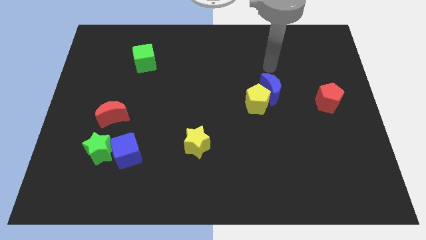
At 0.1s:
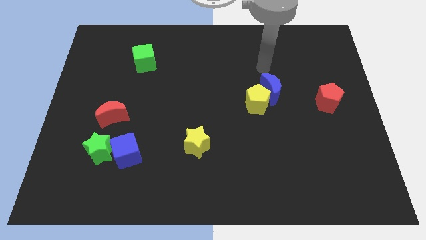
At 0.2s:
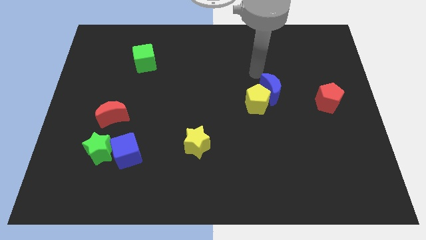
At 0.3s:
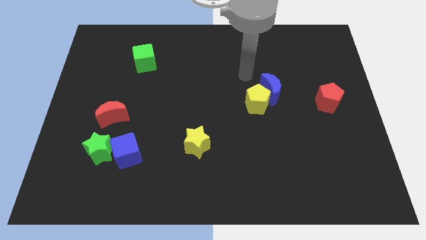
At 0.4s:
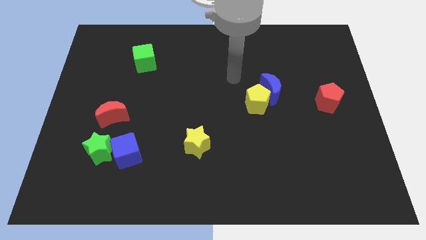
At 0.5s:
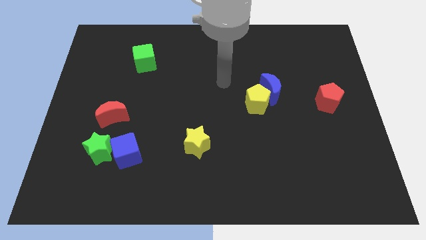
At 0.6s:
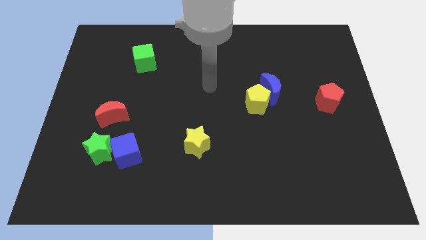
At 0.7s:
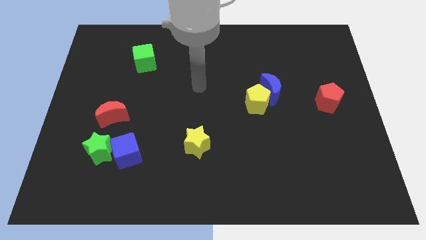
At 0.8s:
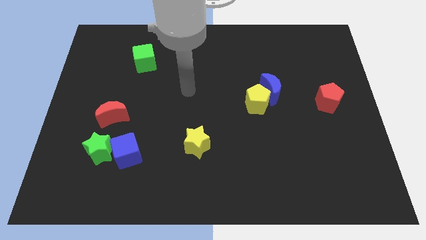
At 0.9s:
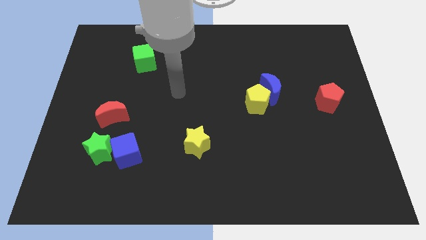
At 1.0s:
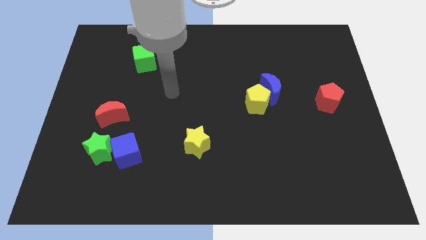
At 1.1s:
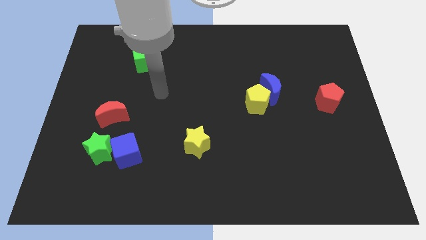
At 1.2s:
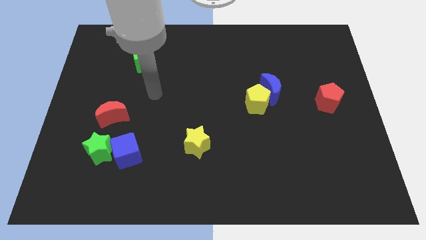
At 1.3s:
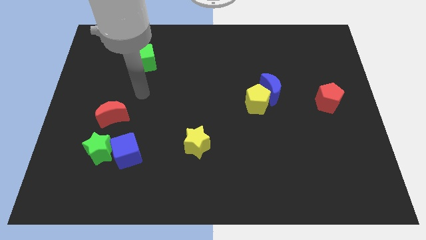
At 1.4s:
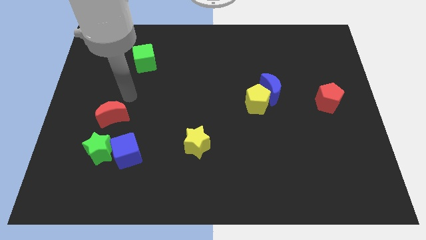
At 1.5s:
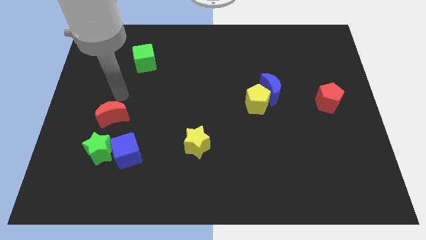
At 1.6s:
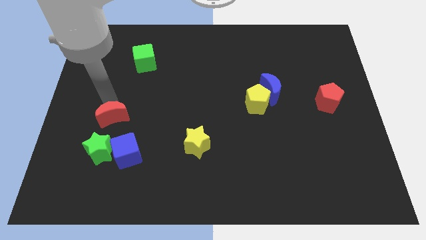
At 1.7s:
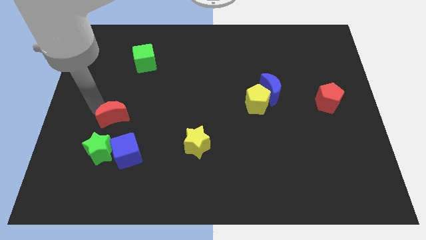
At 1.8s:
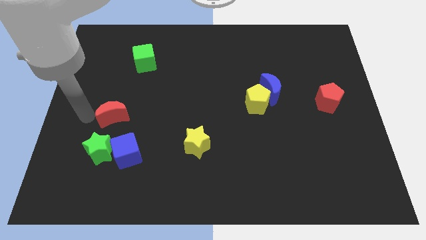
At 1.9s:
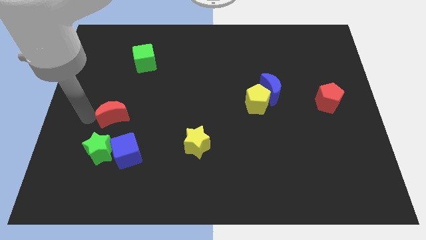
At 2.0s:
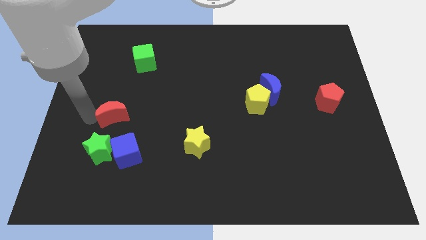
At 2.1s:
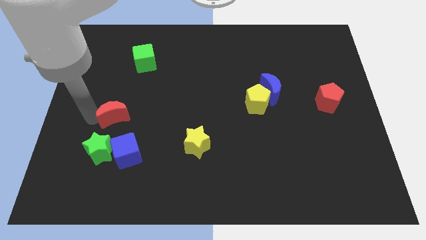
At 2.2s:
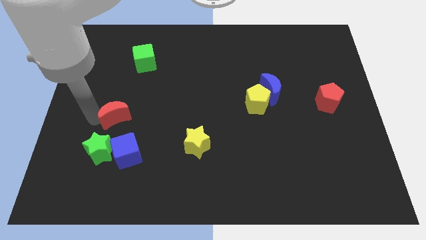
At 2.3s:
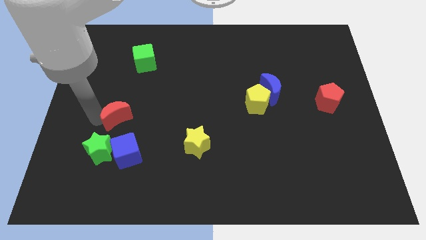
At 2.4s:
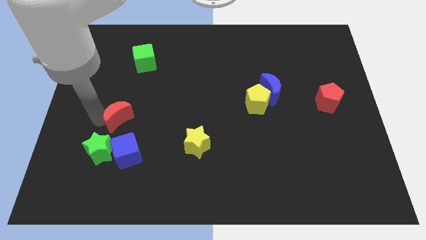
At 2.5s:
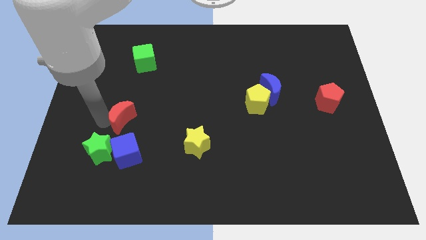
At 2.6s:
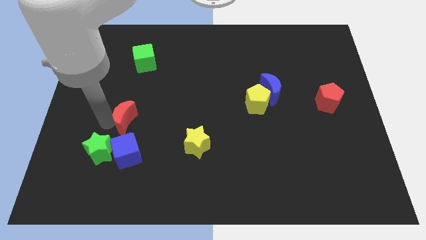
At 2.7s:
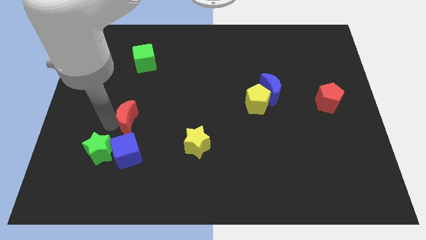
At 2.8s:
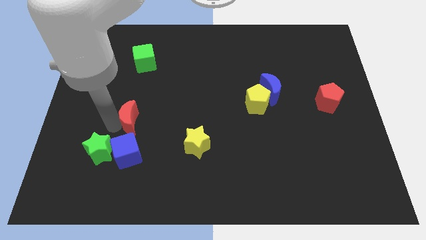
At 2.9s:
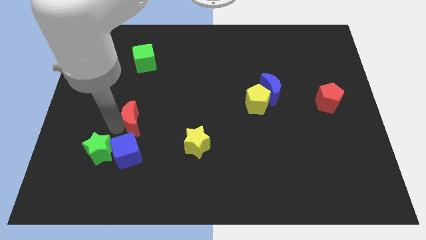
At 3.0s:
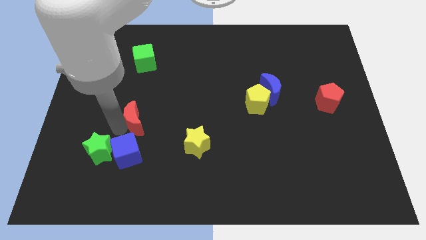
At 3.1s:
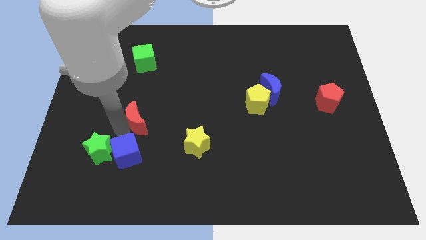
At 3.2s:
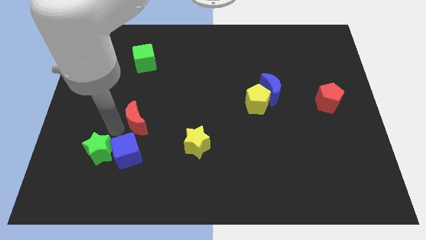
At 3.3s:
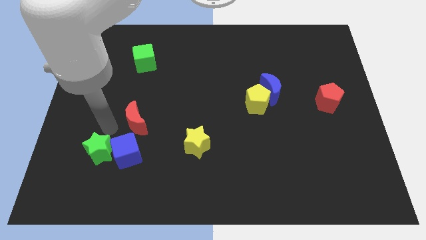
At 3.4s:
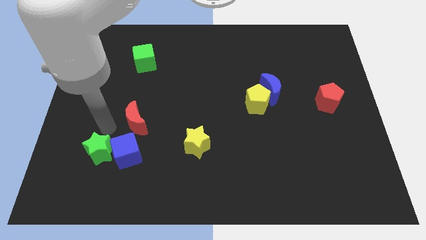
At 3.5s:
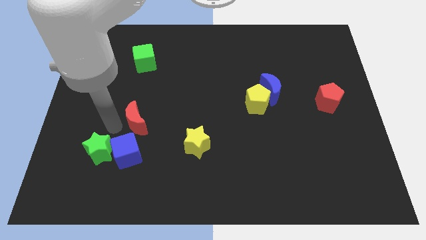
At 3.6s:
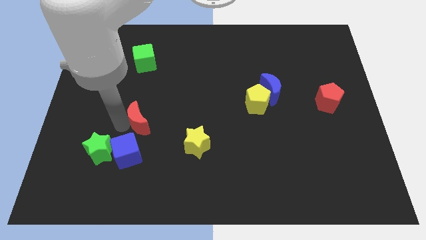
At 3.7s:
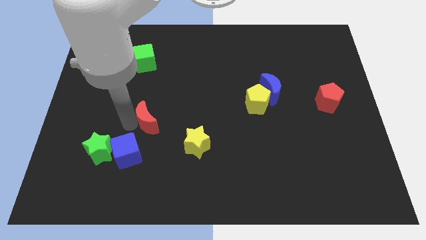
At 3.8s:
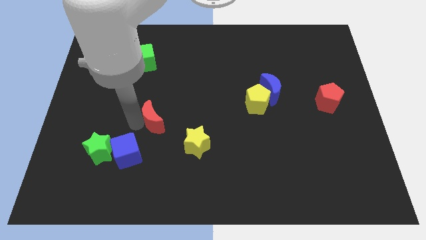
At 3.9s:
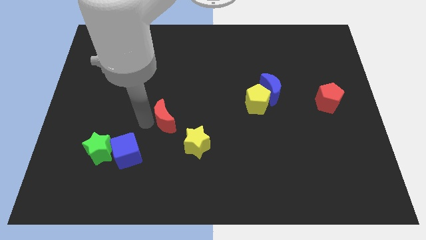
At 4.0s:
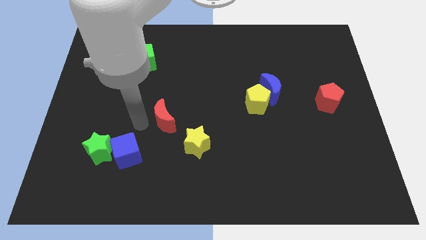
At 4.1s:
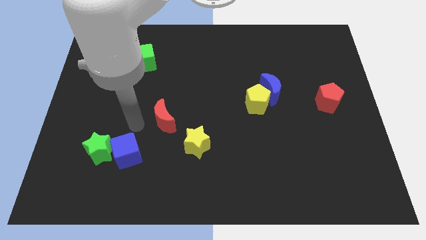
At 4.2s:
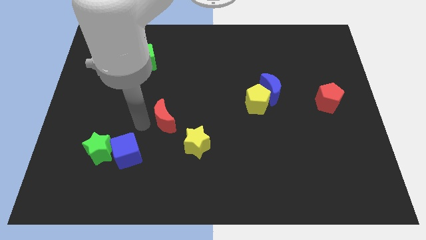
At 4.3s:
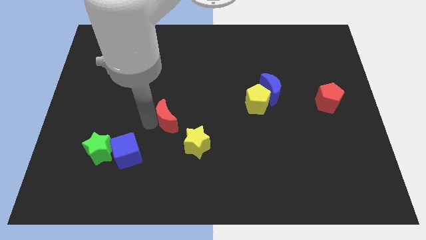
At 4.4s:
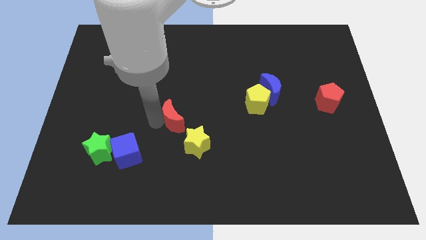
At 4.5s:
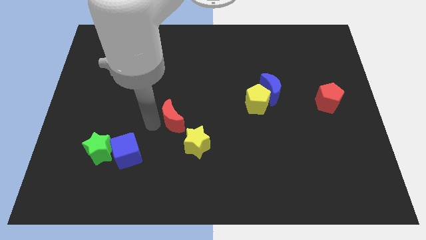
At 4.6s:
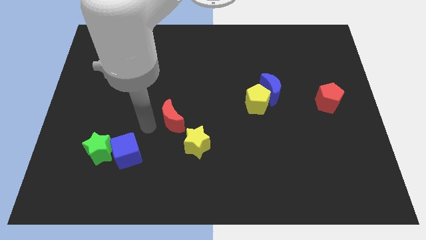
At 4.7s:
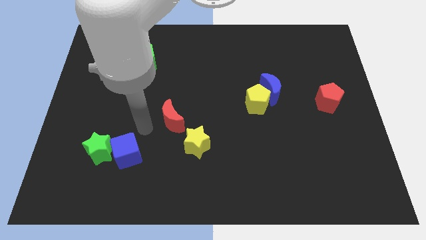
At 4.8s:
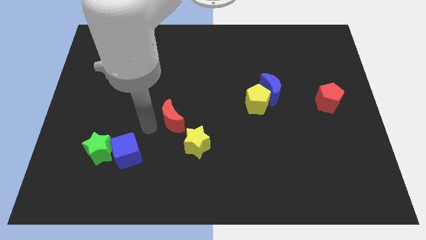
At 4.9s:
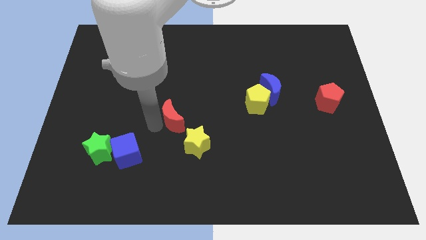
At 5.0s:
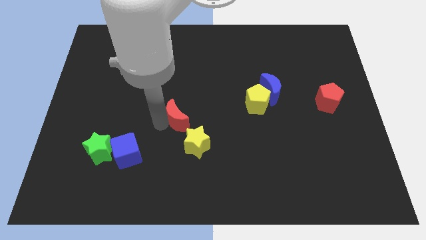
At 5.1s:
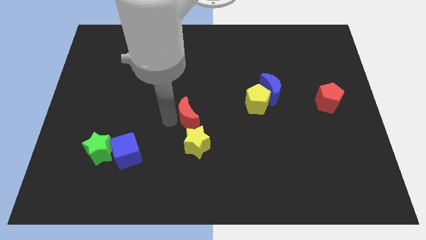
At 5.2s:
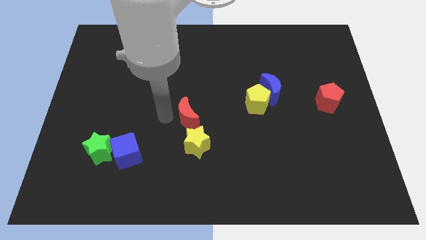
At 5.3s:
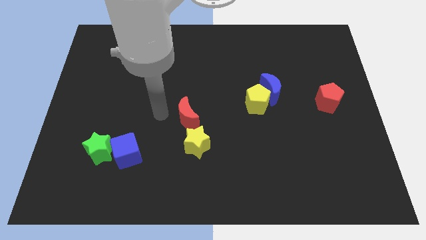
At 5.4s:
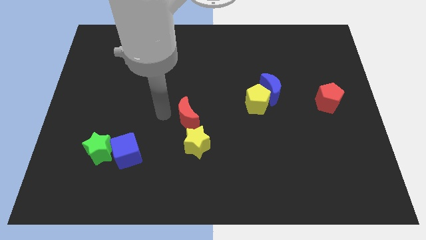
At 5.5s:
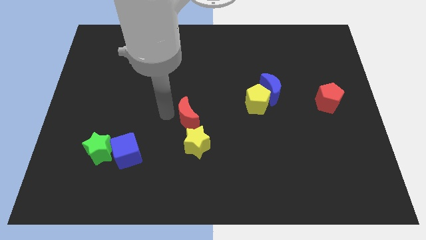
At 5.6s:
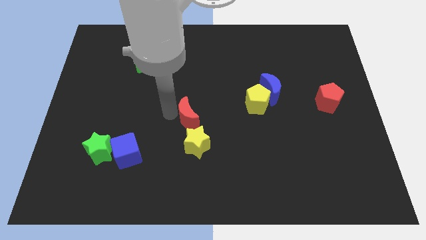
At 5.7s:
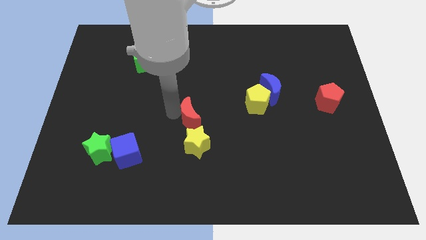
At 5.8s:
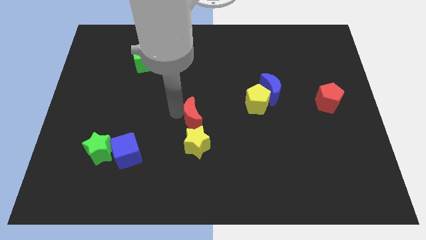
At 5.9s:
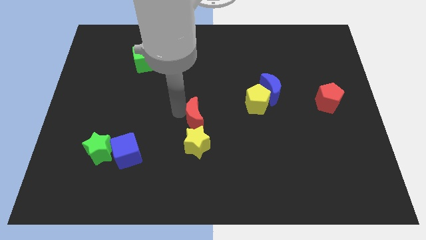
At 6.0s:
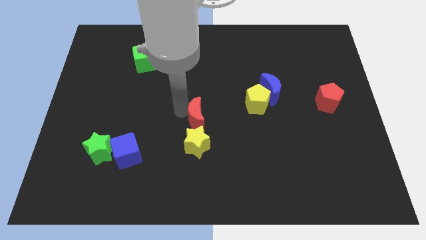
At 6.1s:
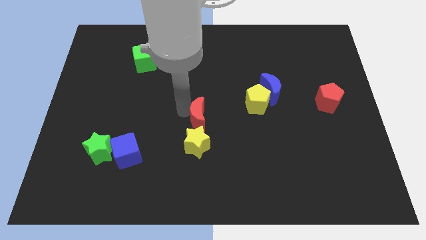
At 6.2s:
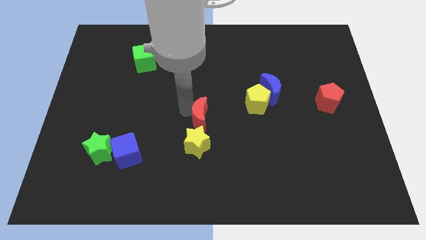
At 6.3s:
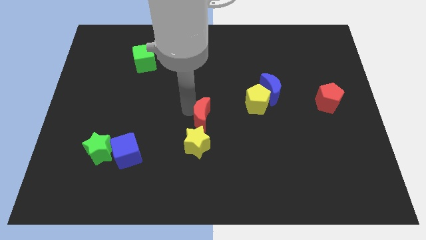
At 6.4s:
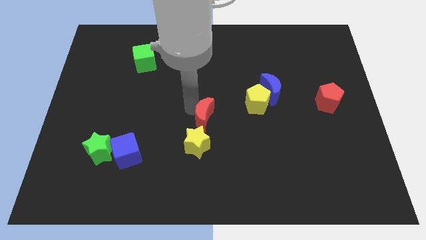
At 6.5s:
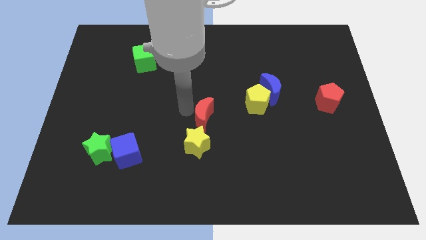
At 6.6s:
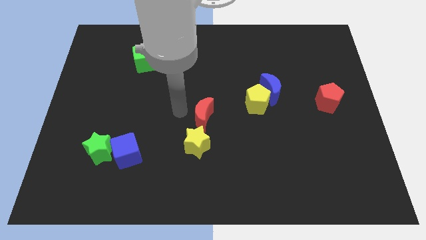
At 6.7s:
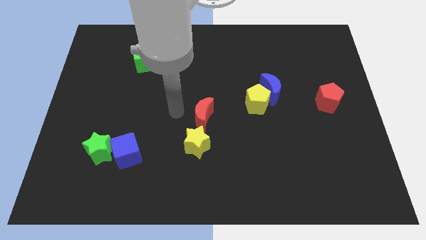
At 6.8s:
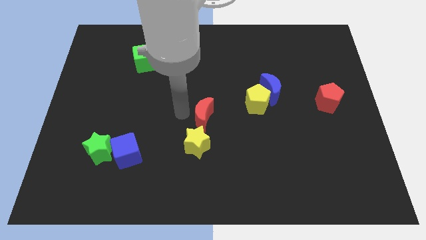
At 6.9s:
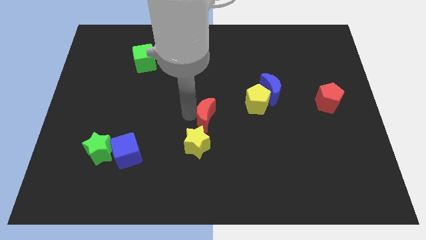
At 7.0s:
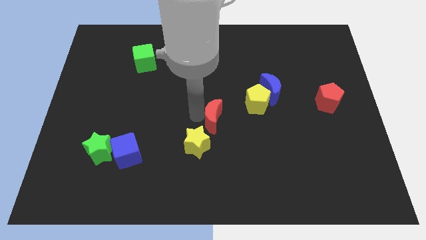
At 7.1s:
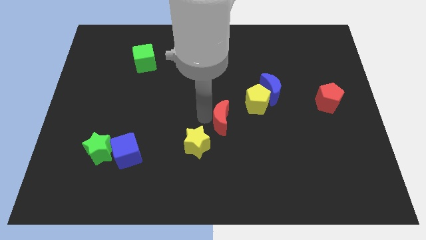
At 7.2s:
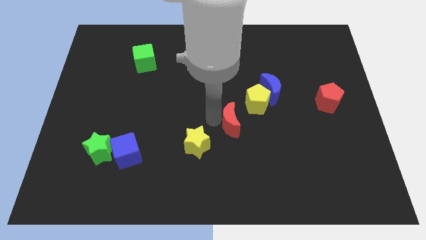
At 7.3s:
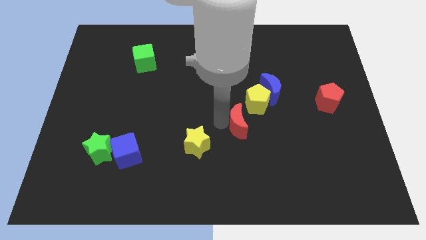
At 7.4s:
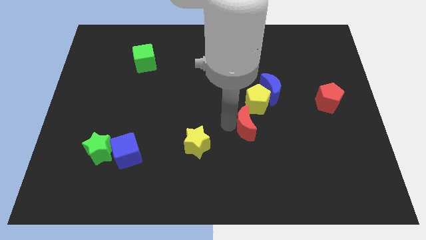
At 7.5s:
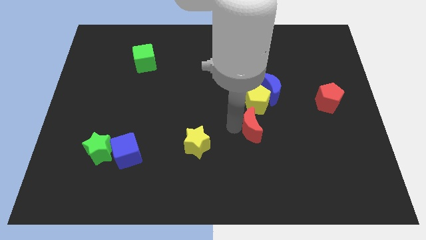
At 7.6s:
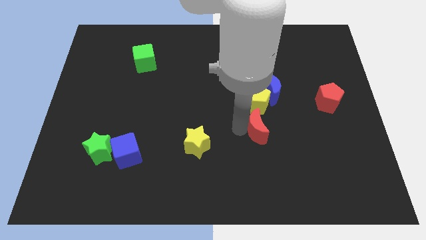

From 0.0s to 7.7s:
push the red moon to the bottom of the blue moon
